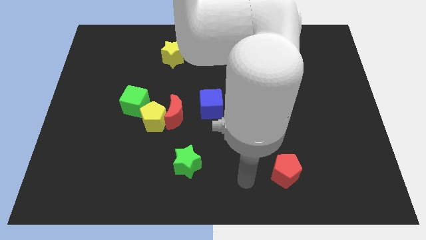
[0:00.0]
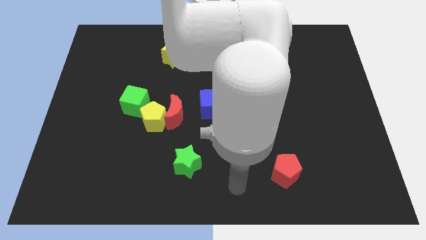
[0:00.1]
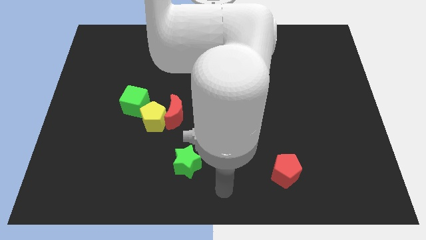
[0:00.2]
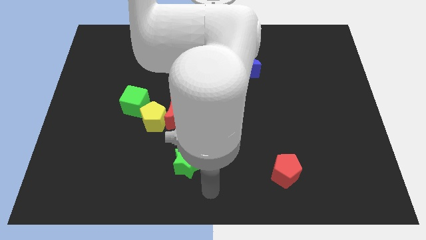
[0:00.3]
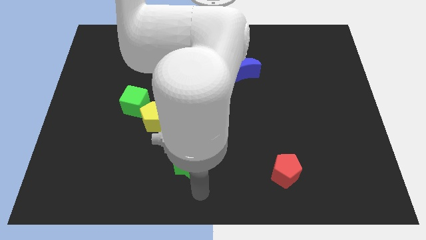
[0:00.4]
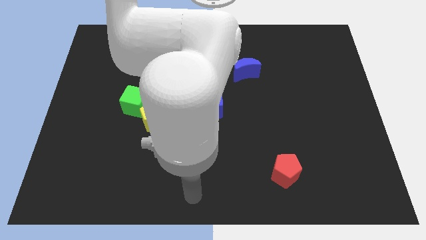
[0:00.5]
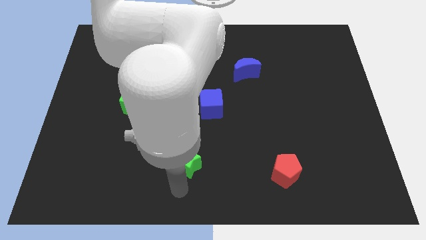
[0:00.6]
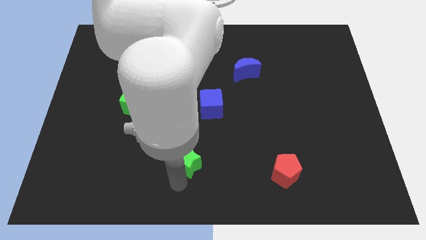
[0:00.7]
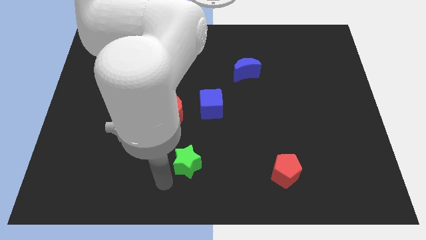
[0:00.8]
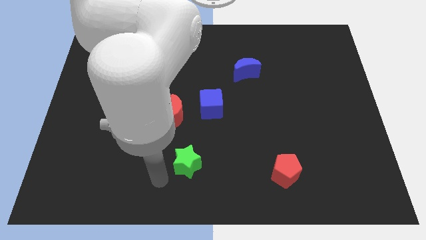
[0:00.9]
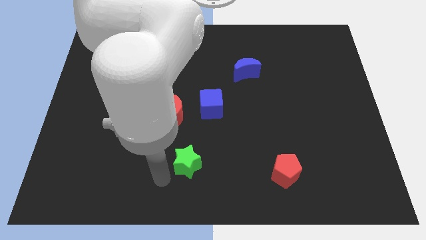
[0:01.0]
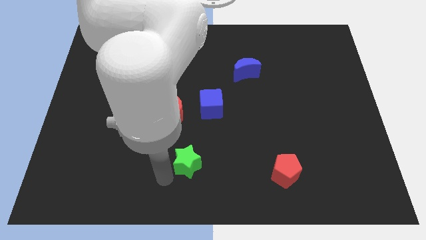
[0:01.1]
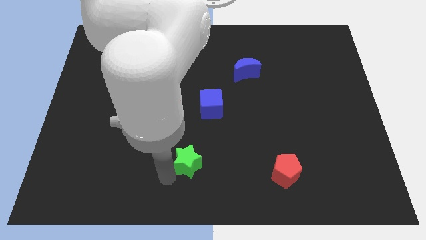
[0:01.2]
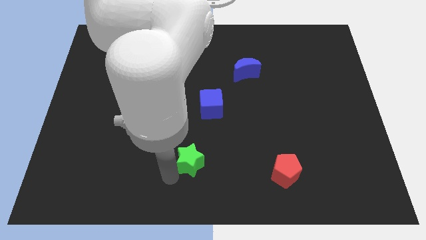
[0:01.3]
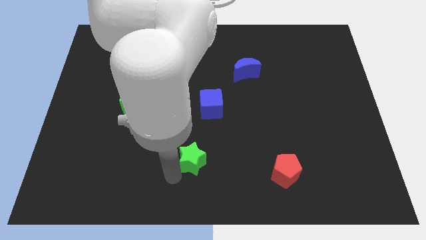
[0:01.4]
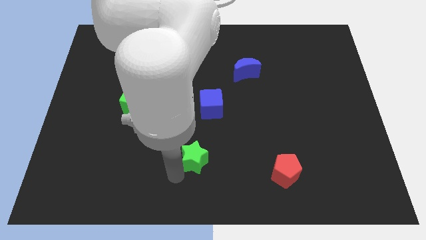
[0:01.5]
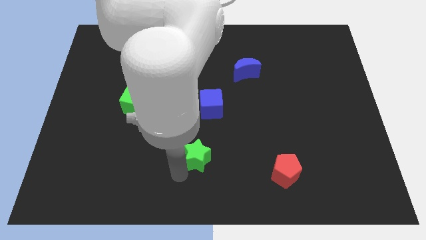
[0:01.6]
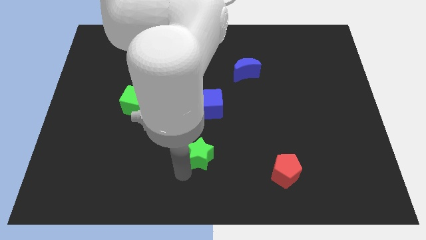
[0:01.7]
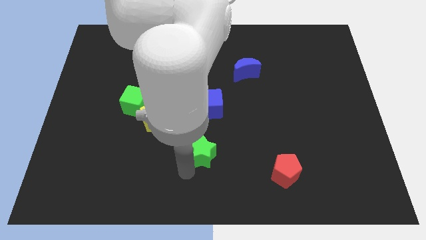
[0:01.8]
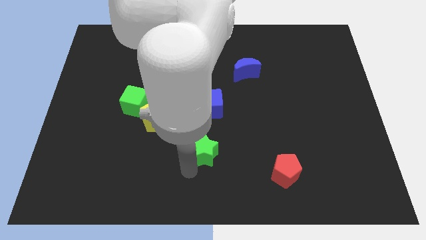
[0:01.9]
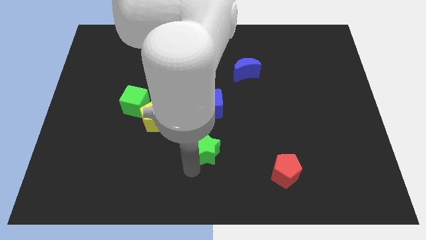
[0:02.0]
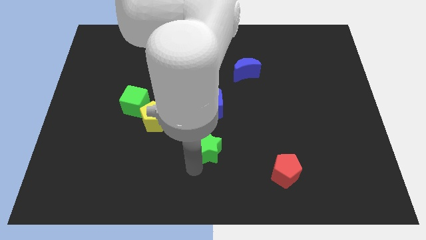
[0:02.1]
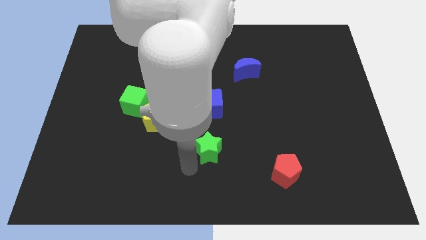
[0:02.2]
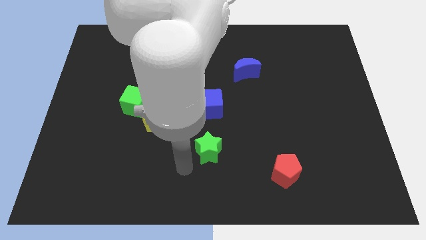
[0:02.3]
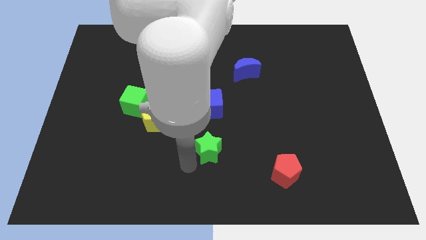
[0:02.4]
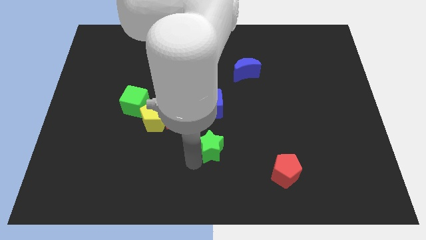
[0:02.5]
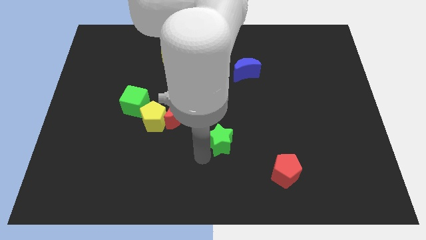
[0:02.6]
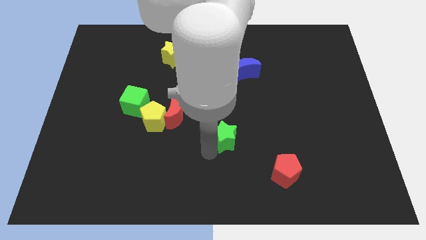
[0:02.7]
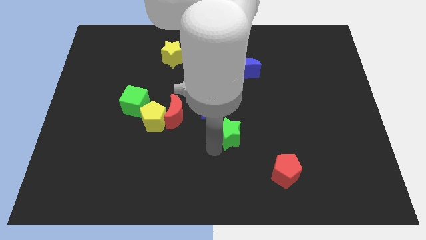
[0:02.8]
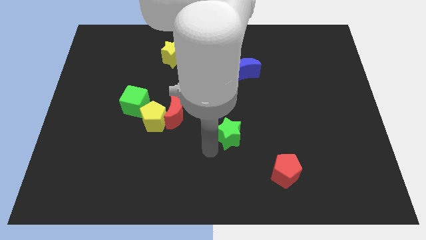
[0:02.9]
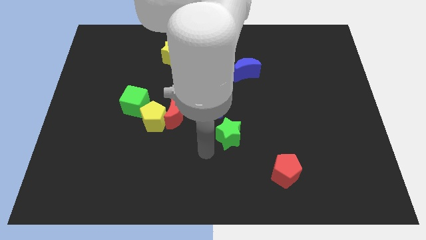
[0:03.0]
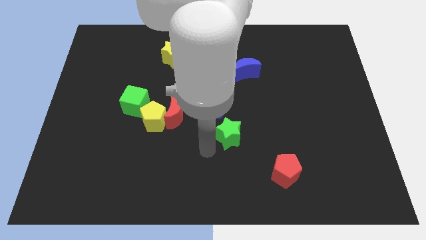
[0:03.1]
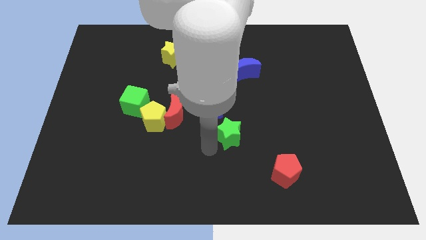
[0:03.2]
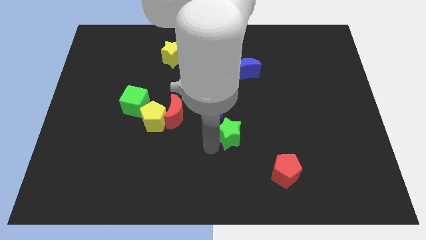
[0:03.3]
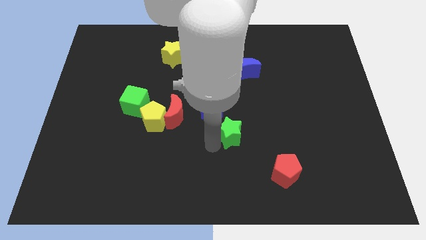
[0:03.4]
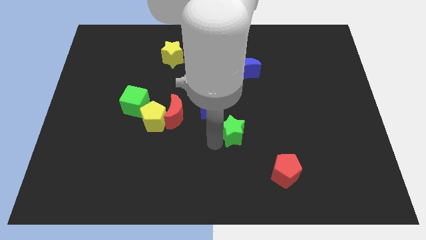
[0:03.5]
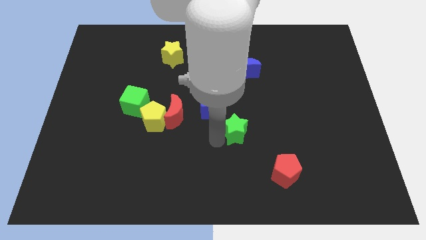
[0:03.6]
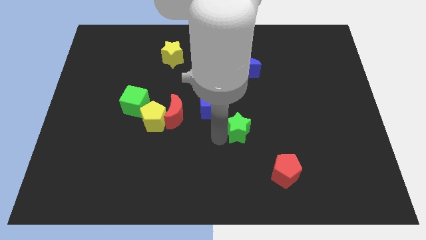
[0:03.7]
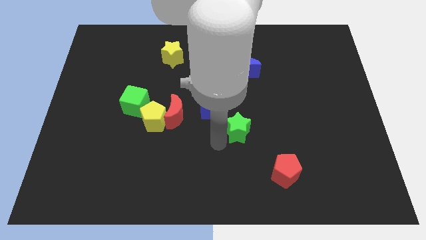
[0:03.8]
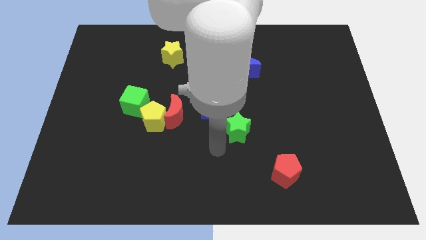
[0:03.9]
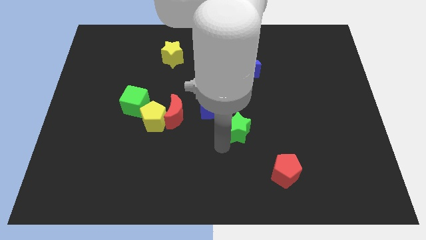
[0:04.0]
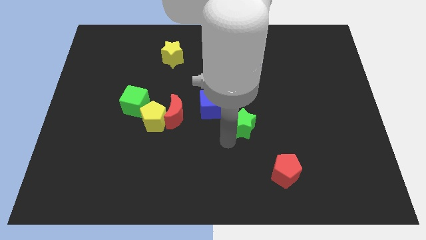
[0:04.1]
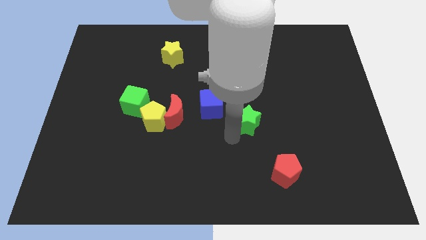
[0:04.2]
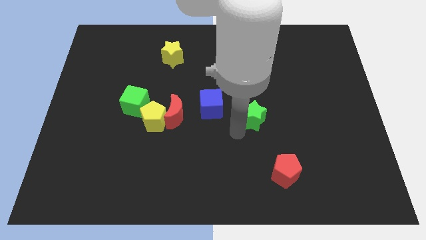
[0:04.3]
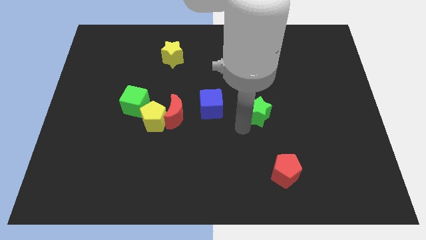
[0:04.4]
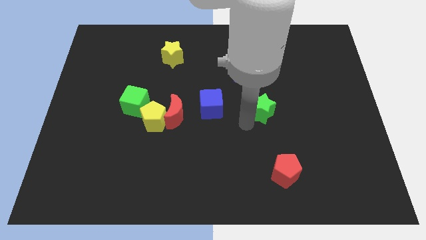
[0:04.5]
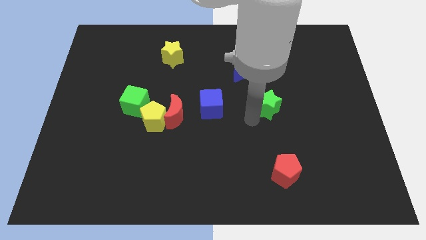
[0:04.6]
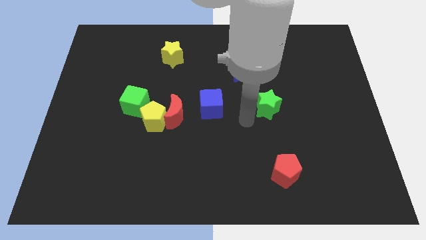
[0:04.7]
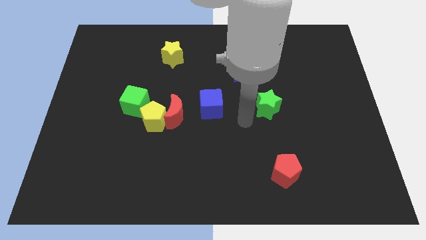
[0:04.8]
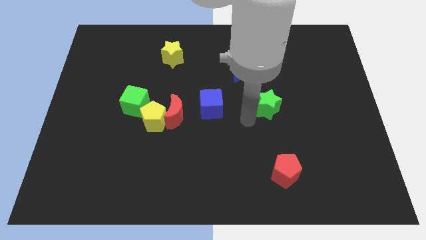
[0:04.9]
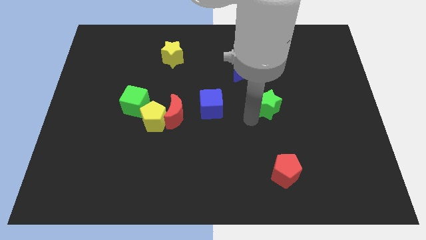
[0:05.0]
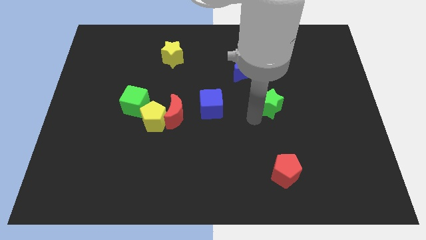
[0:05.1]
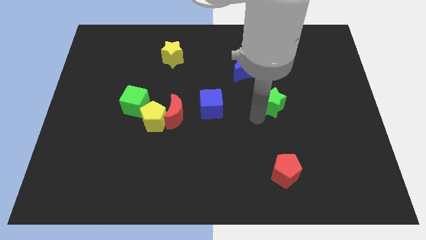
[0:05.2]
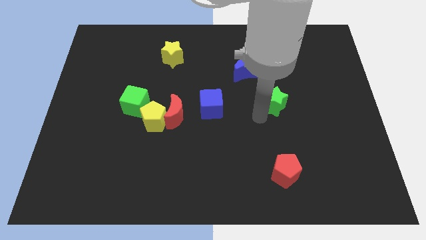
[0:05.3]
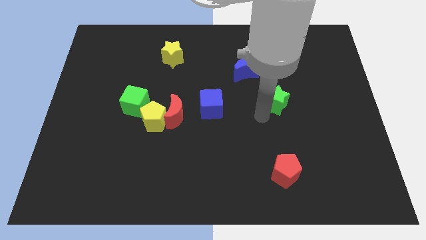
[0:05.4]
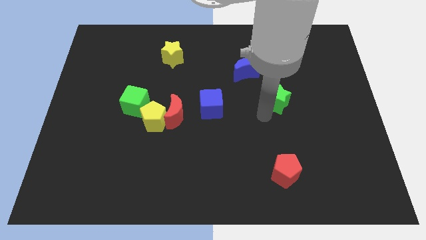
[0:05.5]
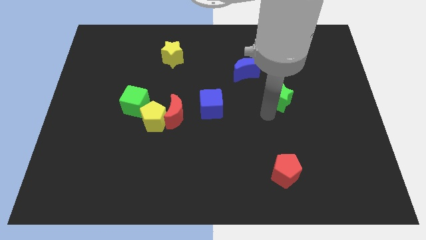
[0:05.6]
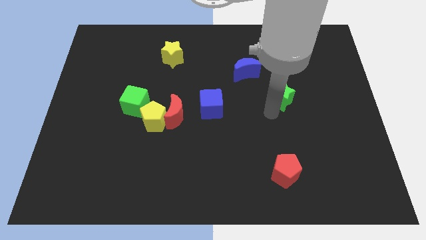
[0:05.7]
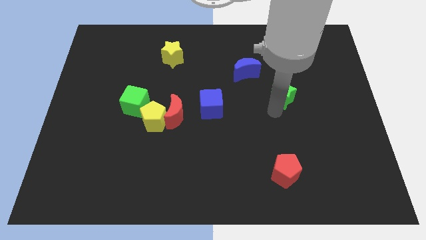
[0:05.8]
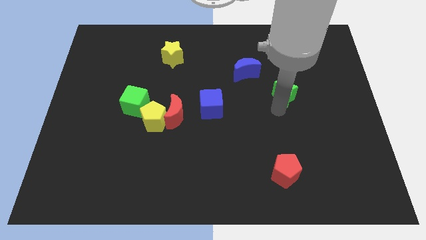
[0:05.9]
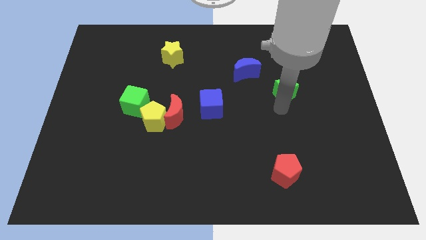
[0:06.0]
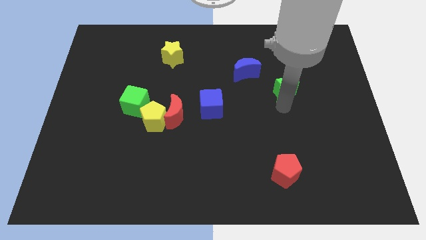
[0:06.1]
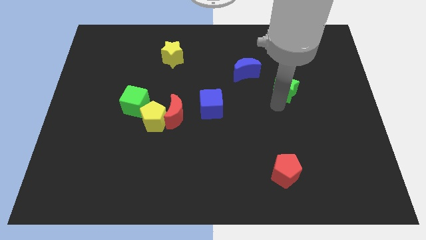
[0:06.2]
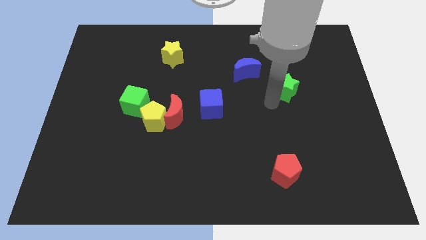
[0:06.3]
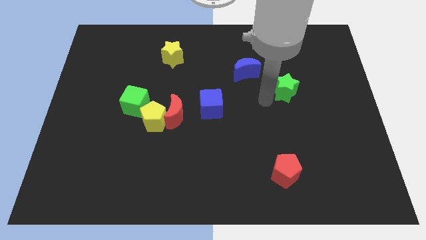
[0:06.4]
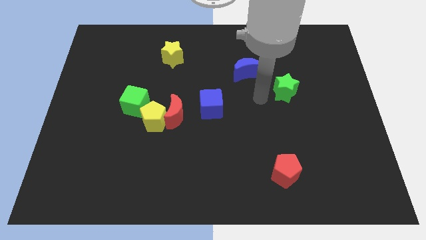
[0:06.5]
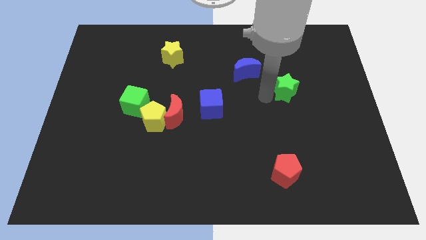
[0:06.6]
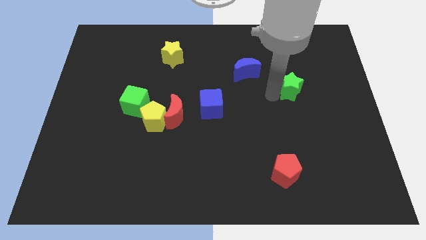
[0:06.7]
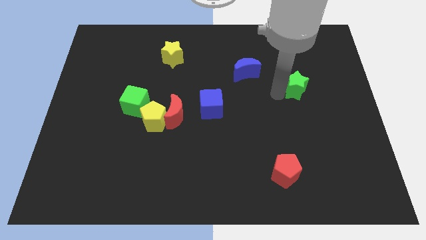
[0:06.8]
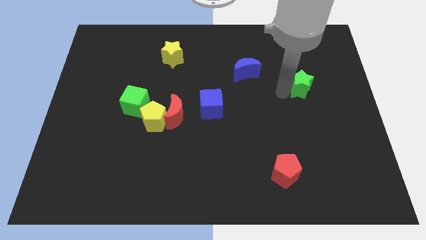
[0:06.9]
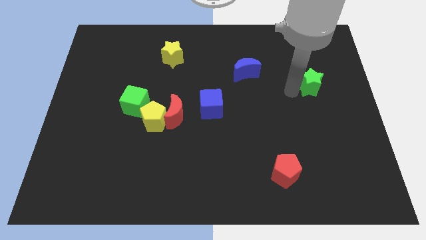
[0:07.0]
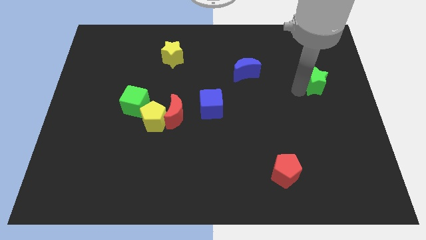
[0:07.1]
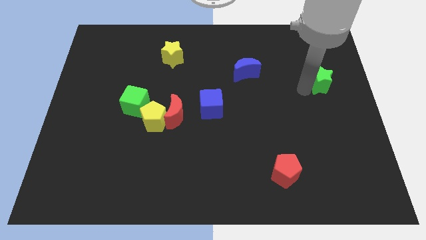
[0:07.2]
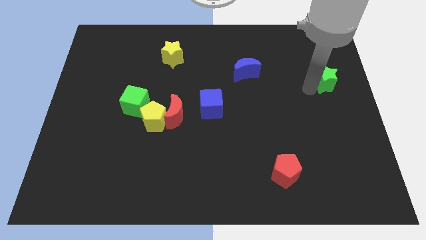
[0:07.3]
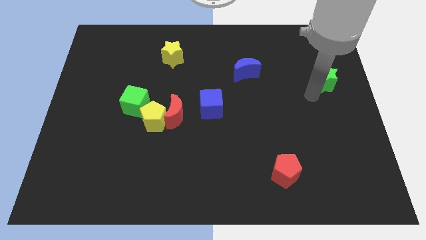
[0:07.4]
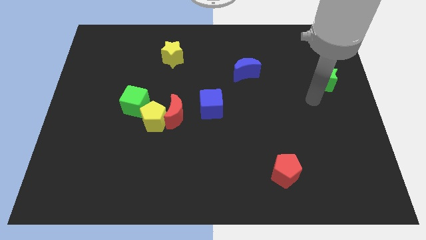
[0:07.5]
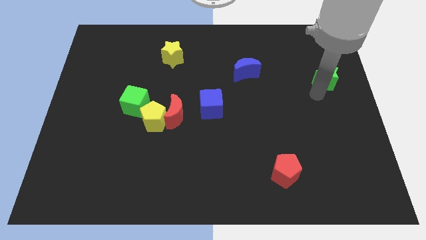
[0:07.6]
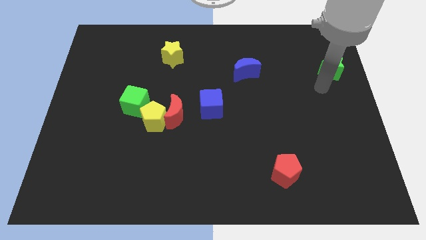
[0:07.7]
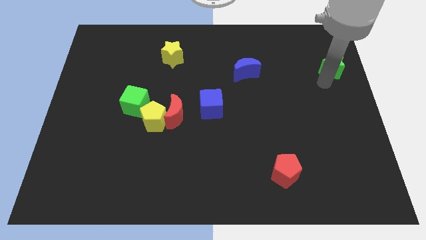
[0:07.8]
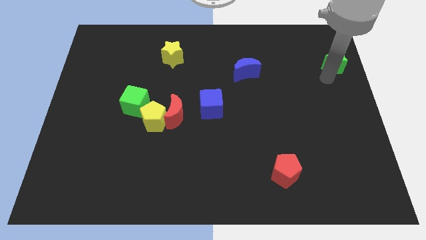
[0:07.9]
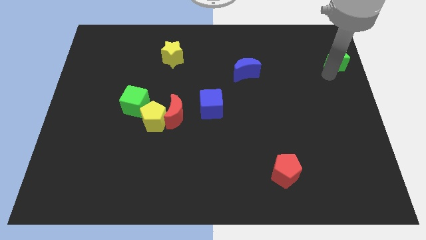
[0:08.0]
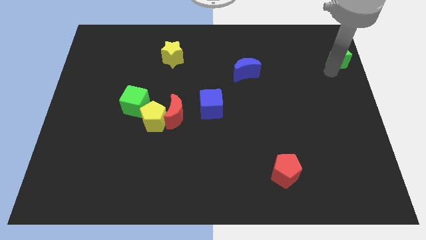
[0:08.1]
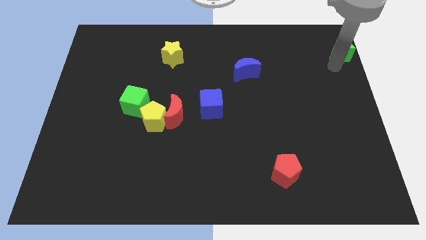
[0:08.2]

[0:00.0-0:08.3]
push the green star to the upper right corner
